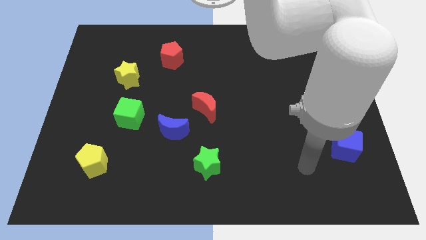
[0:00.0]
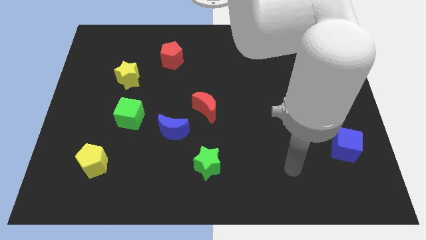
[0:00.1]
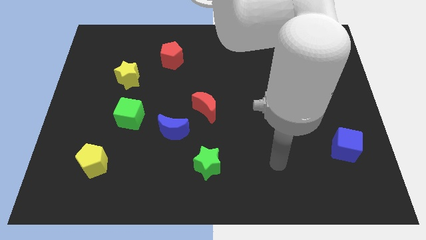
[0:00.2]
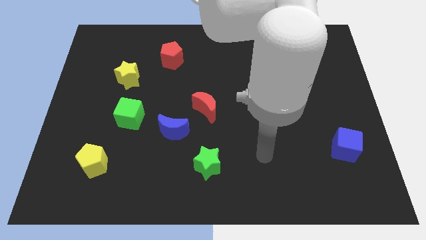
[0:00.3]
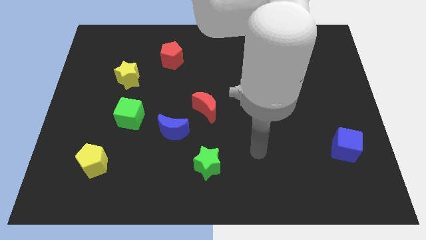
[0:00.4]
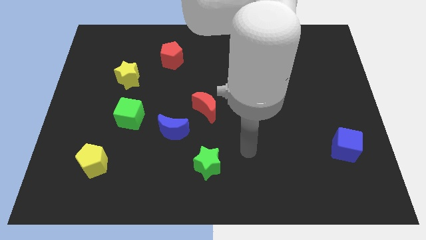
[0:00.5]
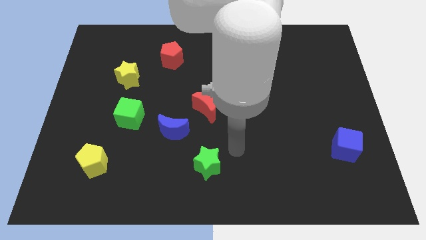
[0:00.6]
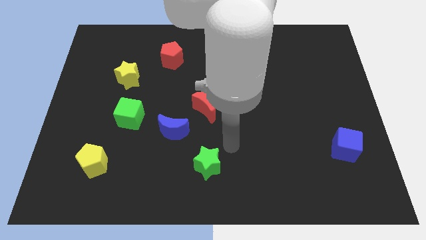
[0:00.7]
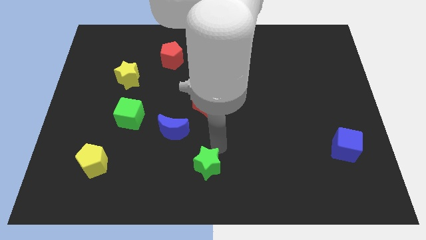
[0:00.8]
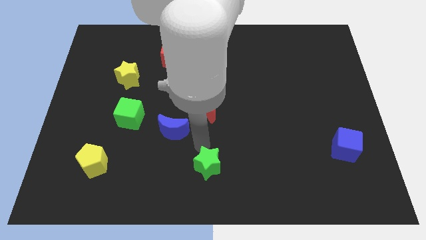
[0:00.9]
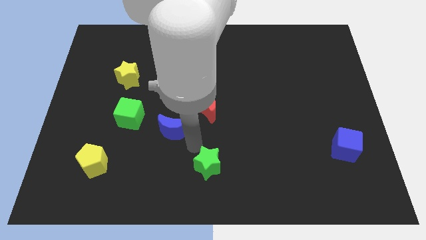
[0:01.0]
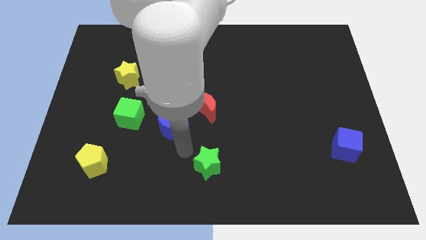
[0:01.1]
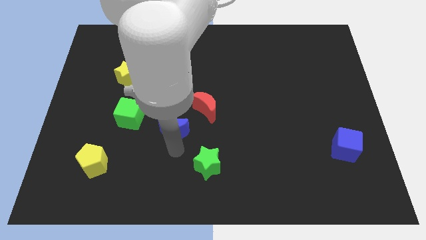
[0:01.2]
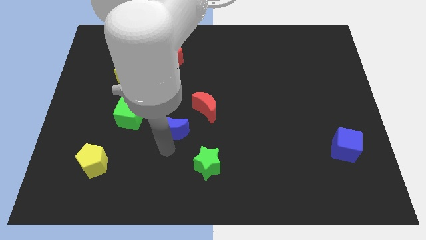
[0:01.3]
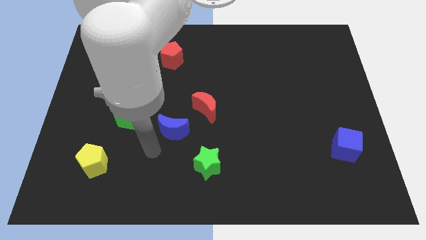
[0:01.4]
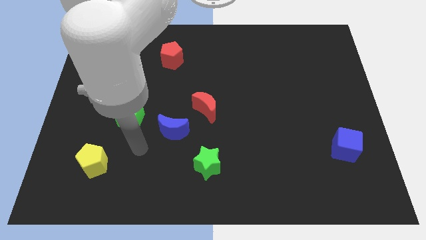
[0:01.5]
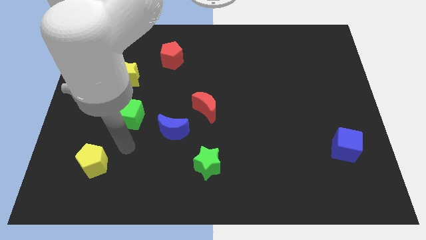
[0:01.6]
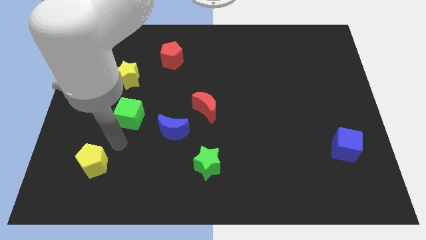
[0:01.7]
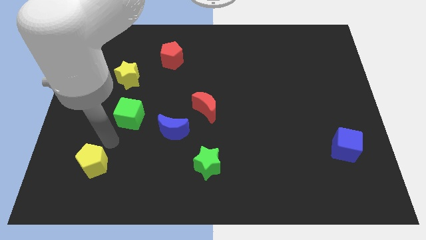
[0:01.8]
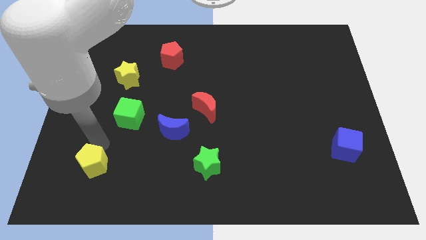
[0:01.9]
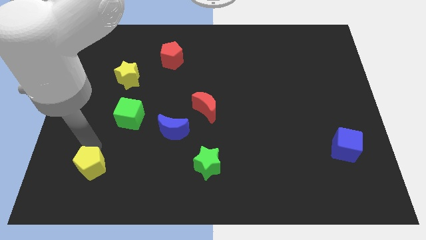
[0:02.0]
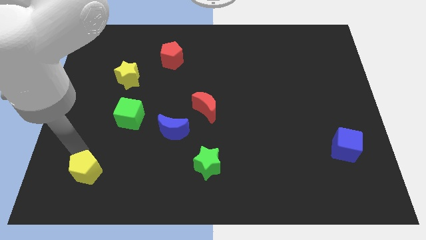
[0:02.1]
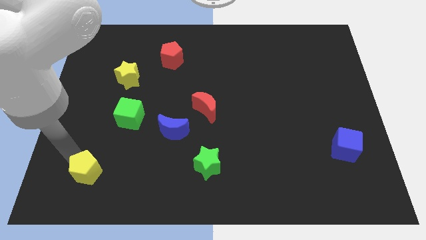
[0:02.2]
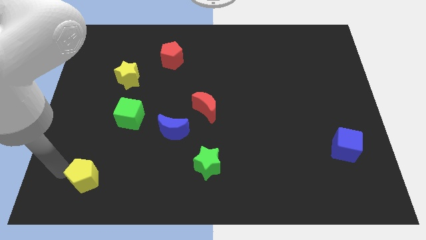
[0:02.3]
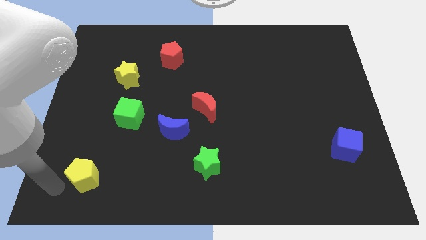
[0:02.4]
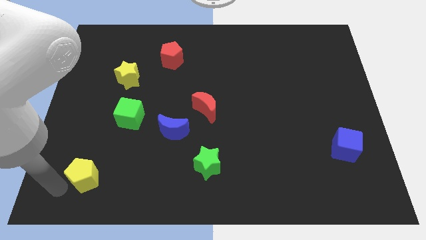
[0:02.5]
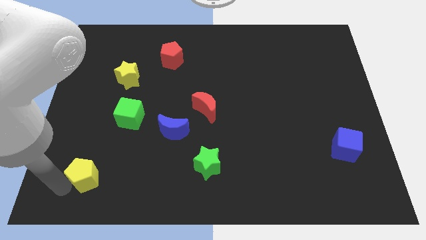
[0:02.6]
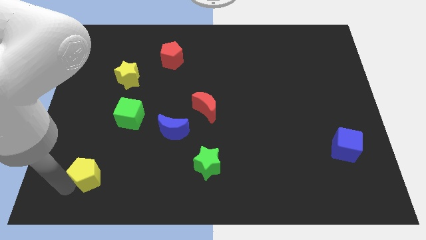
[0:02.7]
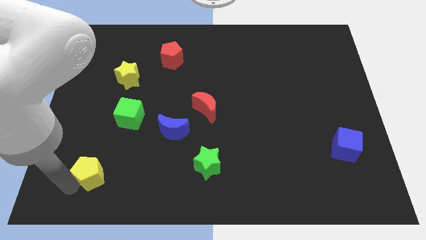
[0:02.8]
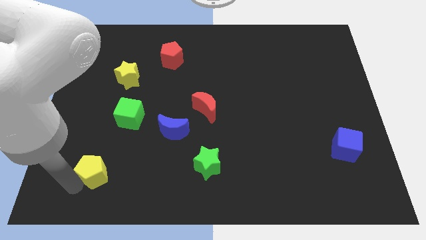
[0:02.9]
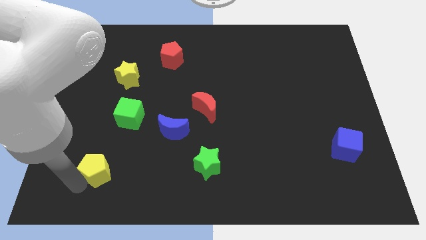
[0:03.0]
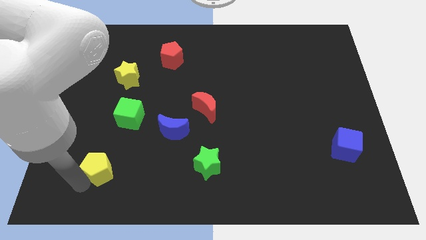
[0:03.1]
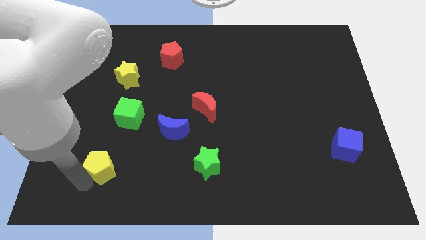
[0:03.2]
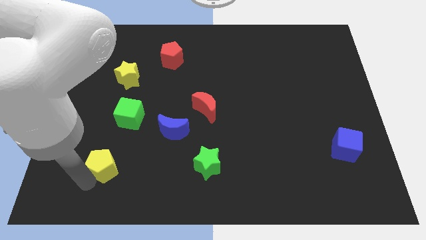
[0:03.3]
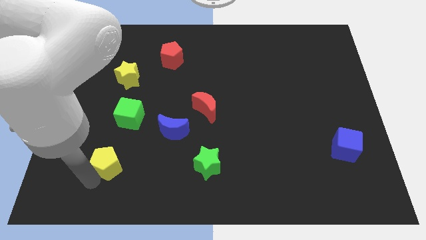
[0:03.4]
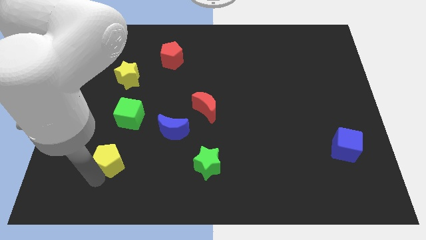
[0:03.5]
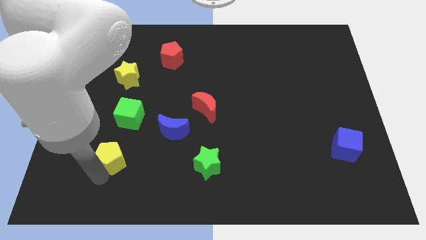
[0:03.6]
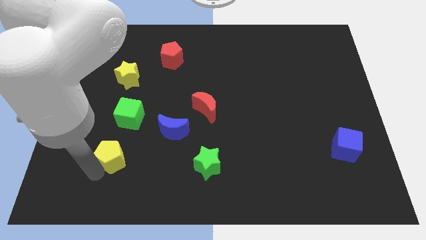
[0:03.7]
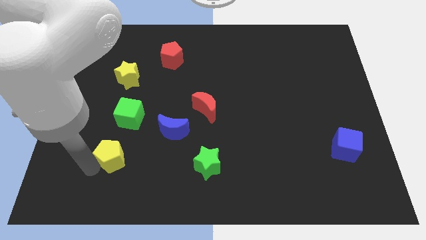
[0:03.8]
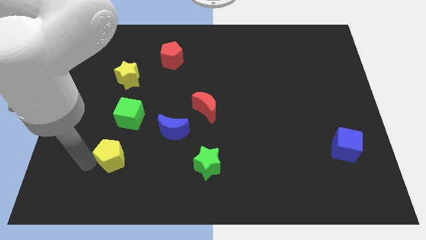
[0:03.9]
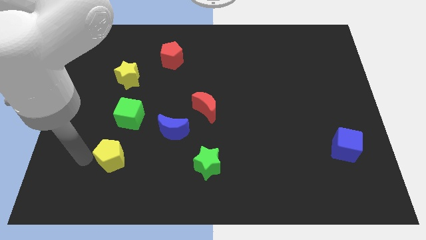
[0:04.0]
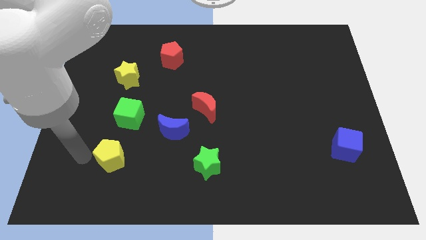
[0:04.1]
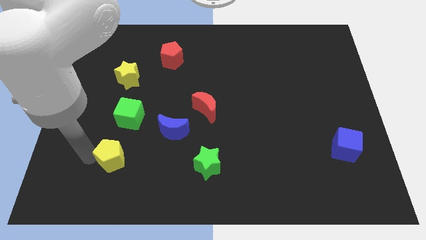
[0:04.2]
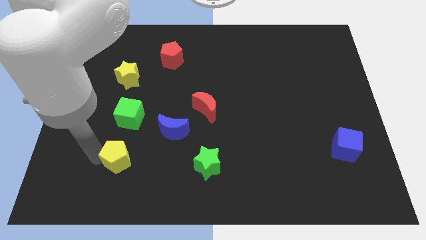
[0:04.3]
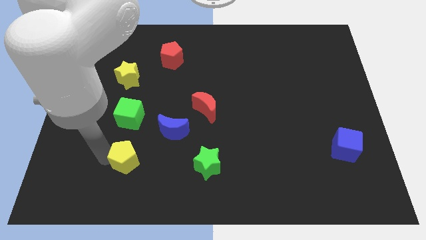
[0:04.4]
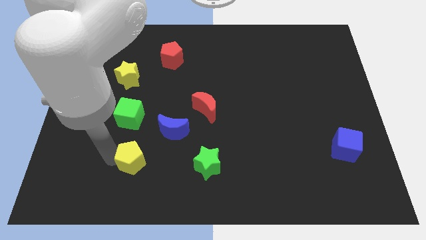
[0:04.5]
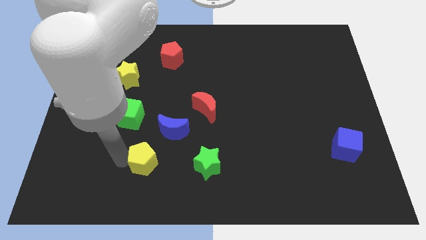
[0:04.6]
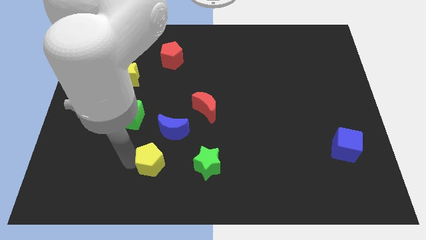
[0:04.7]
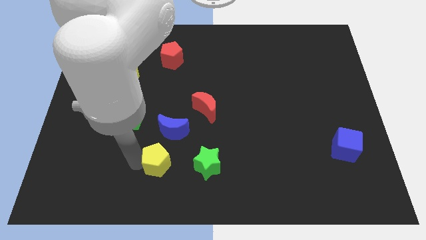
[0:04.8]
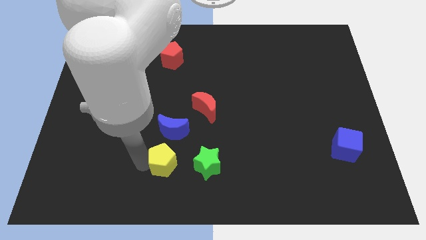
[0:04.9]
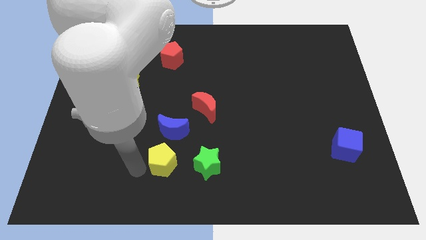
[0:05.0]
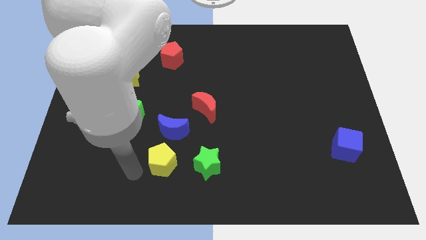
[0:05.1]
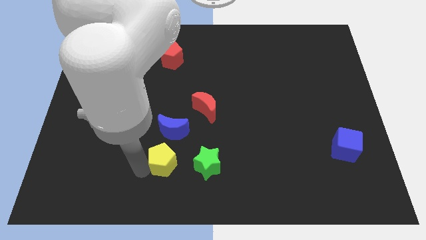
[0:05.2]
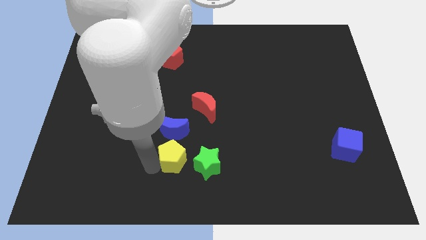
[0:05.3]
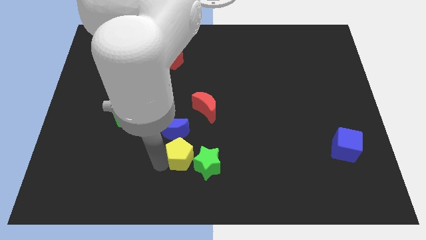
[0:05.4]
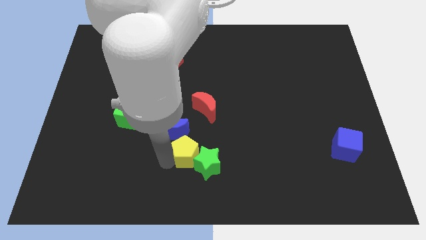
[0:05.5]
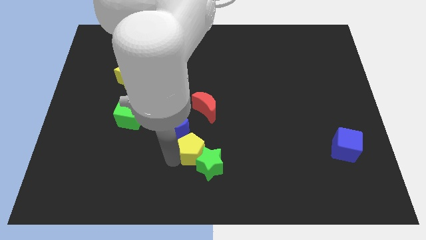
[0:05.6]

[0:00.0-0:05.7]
slide the yellow pentagon to the right

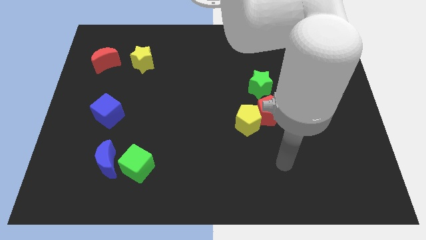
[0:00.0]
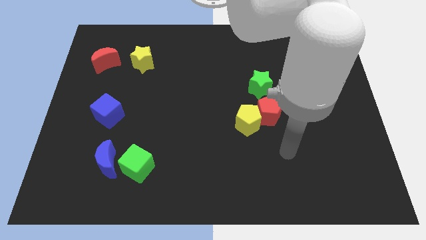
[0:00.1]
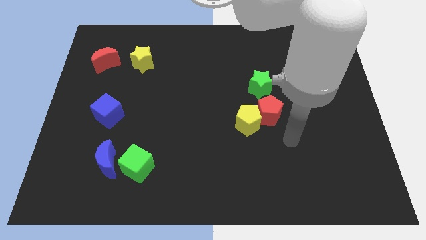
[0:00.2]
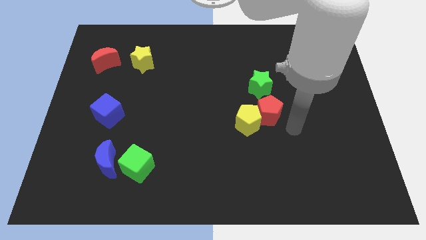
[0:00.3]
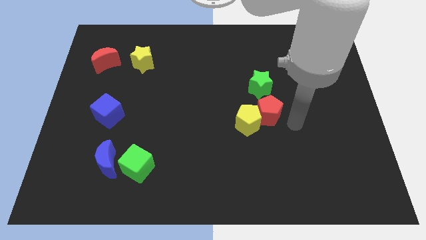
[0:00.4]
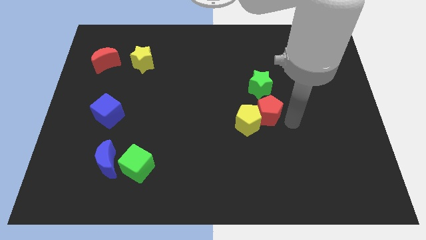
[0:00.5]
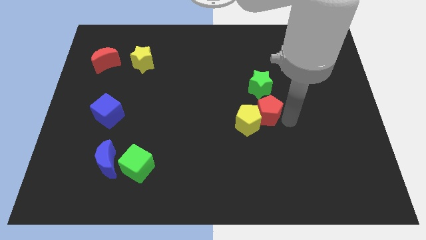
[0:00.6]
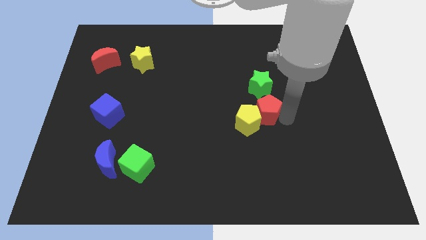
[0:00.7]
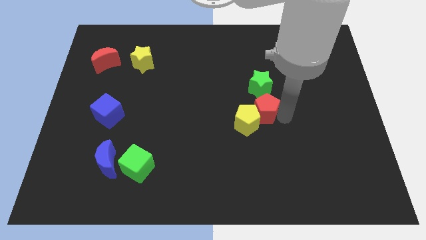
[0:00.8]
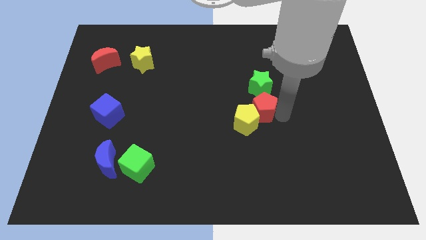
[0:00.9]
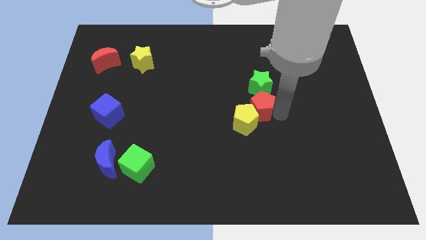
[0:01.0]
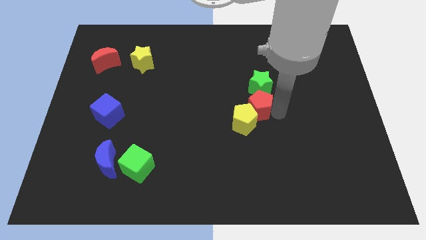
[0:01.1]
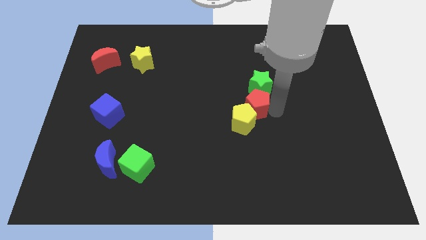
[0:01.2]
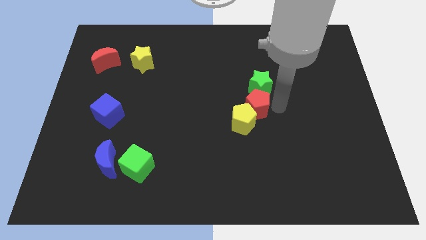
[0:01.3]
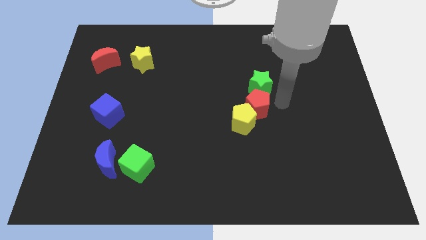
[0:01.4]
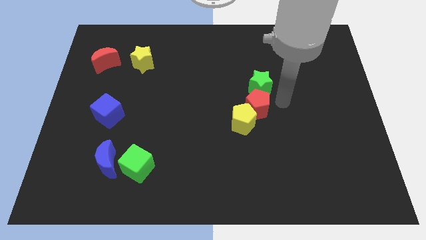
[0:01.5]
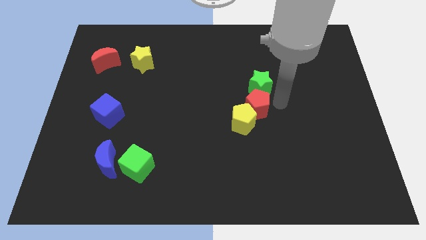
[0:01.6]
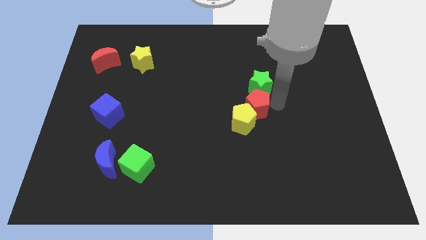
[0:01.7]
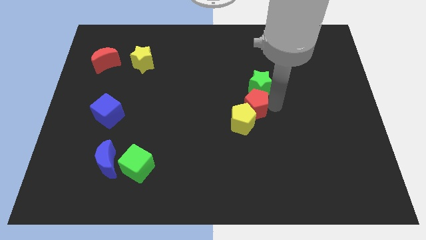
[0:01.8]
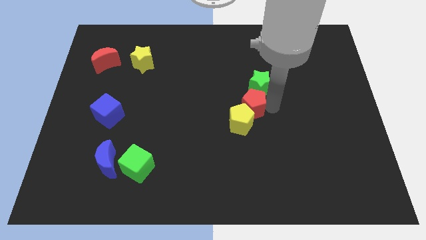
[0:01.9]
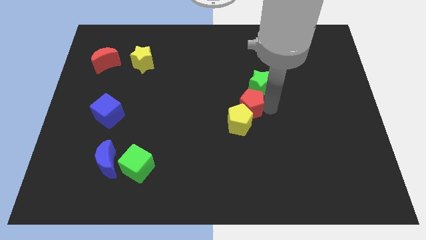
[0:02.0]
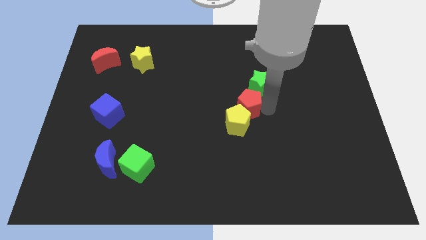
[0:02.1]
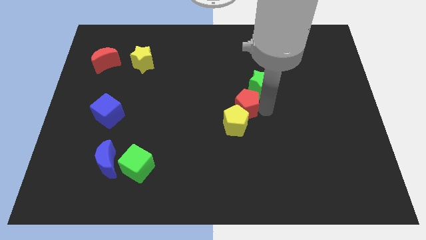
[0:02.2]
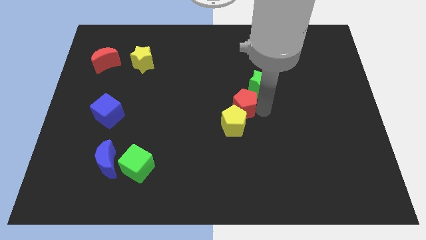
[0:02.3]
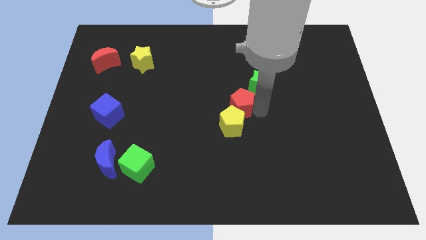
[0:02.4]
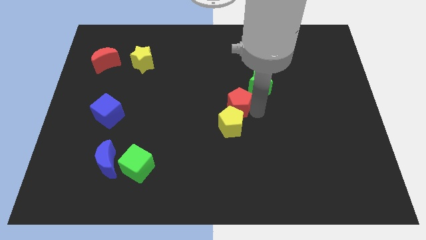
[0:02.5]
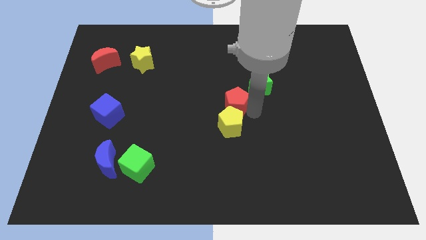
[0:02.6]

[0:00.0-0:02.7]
slightly slide the red pentagon to the left
